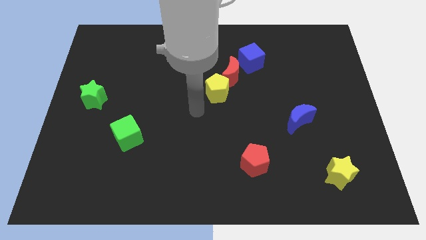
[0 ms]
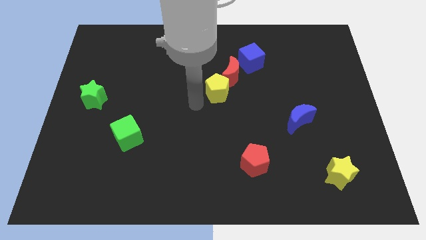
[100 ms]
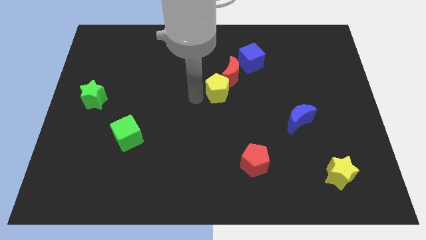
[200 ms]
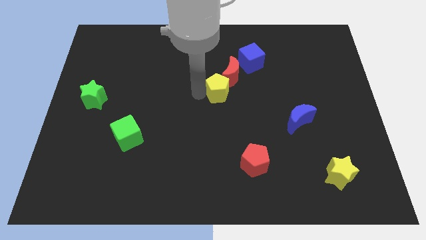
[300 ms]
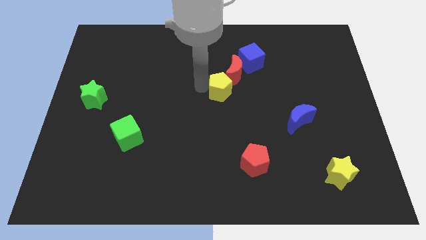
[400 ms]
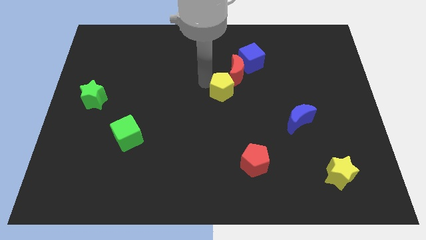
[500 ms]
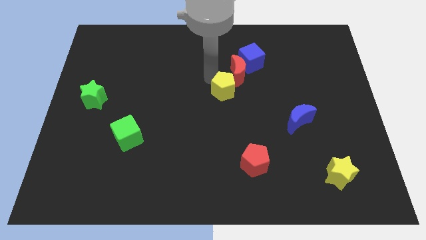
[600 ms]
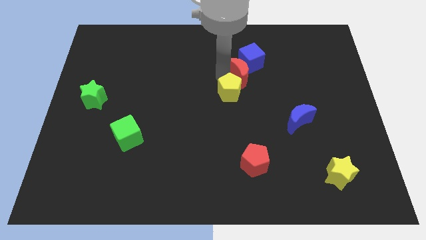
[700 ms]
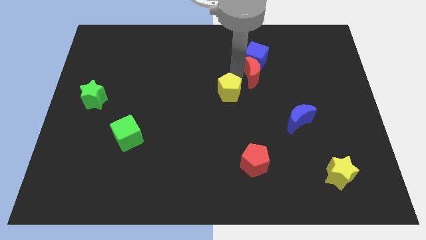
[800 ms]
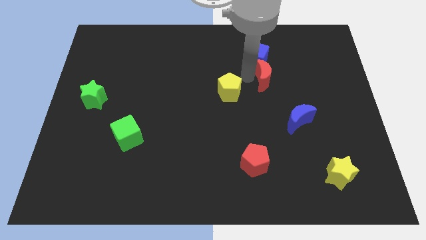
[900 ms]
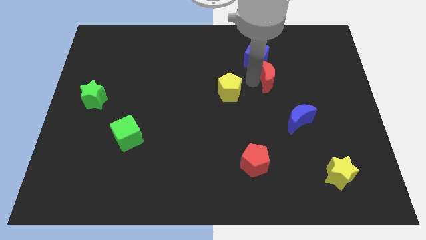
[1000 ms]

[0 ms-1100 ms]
separate the yellow pentagon from the red moon

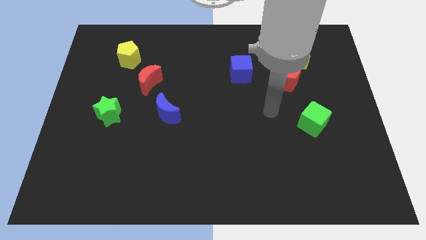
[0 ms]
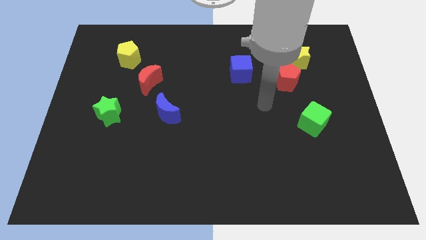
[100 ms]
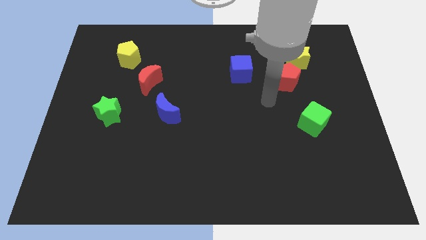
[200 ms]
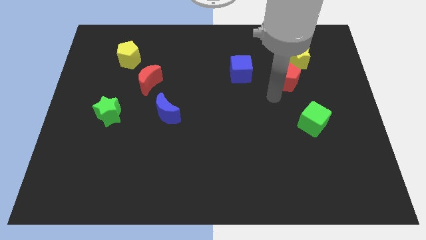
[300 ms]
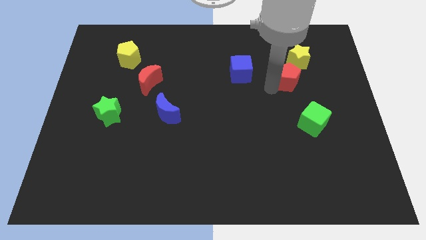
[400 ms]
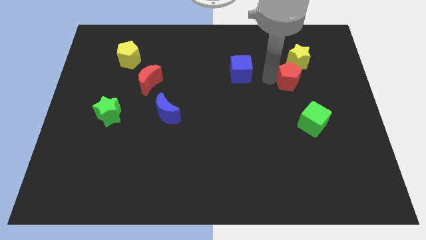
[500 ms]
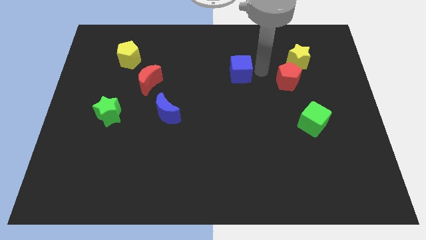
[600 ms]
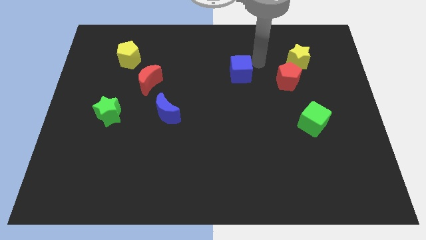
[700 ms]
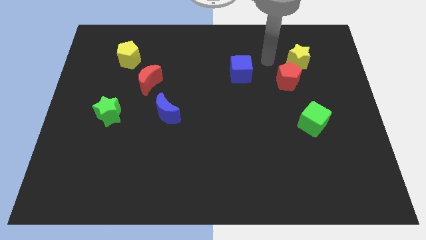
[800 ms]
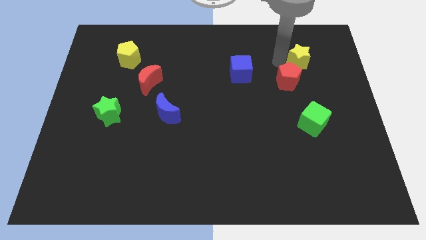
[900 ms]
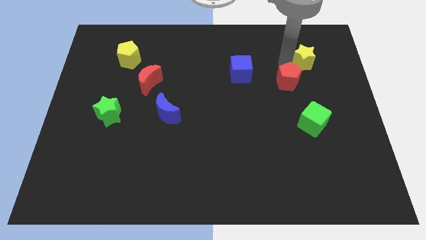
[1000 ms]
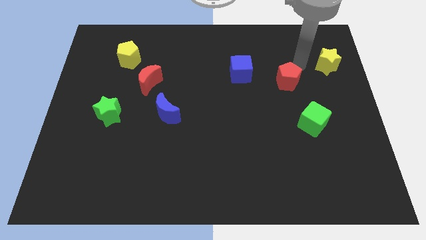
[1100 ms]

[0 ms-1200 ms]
move the red pentagon away from the yellow star

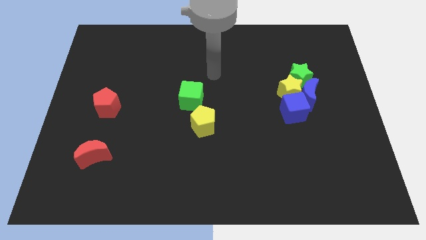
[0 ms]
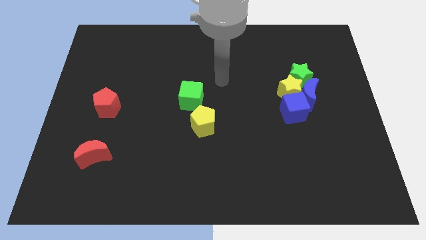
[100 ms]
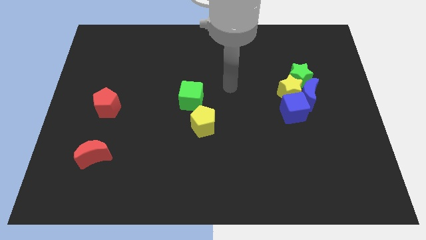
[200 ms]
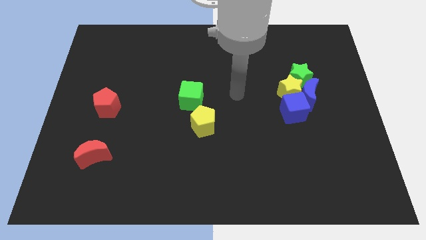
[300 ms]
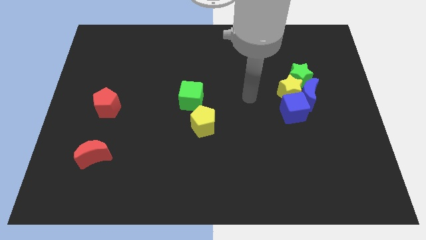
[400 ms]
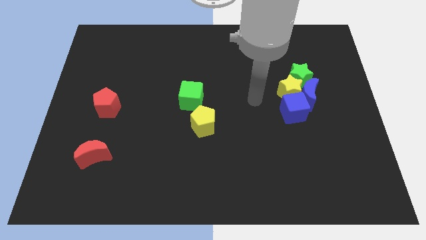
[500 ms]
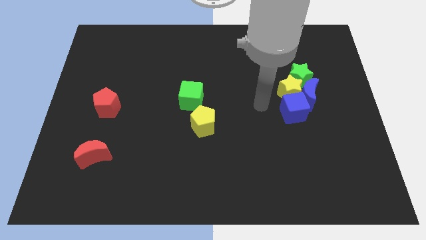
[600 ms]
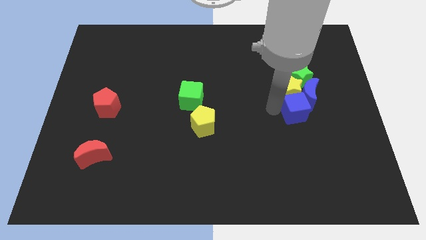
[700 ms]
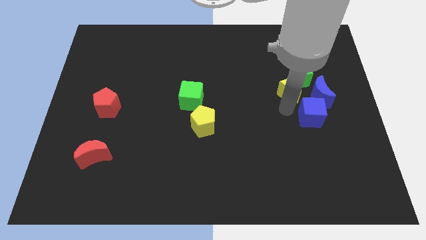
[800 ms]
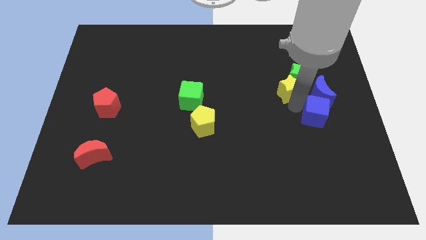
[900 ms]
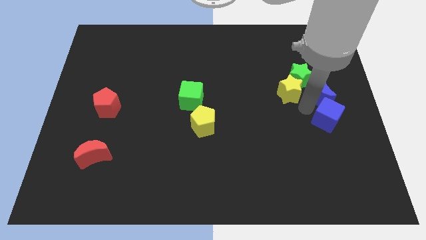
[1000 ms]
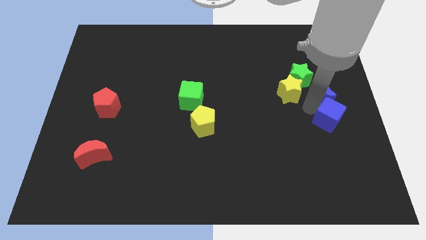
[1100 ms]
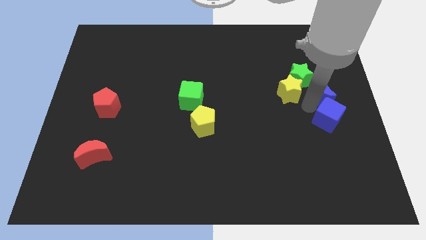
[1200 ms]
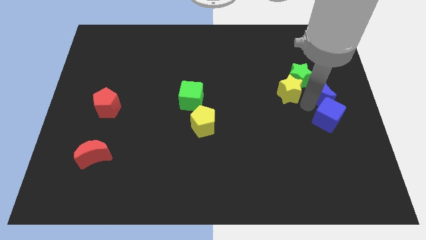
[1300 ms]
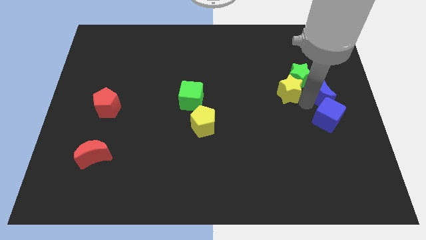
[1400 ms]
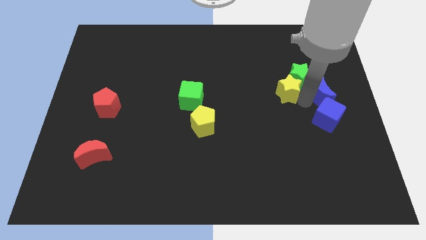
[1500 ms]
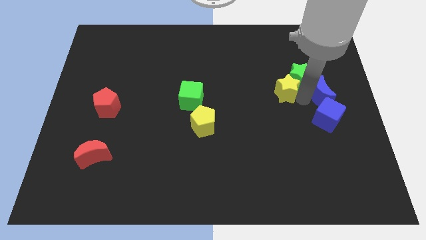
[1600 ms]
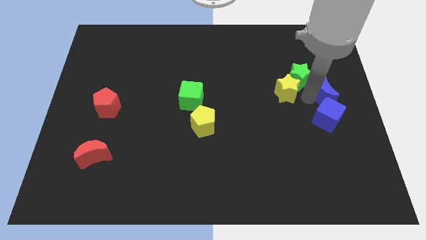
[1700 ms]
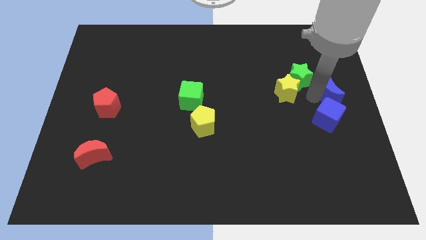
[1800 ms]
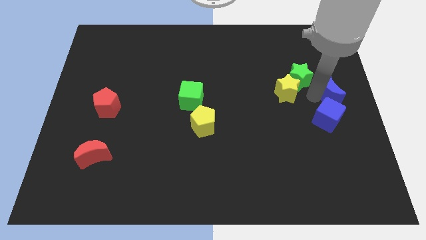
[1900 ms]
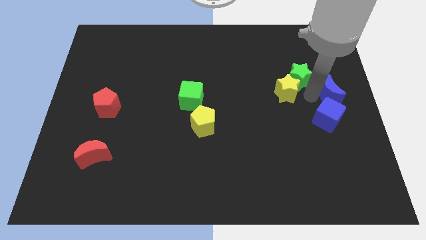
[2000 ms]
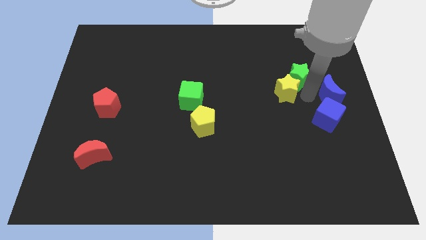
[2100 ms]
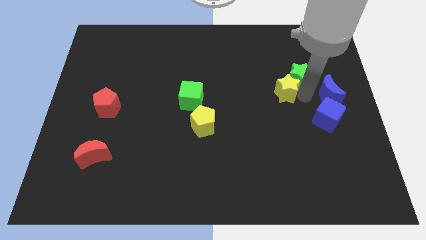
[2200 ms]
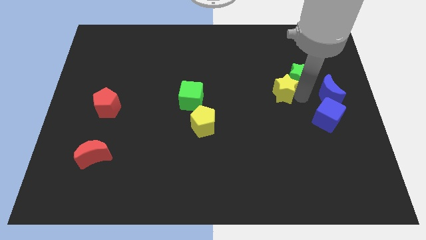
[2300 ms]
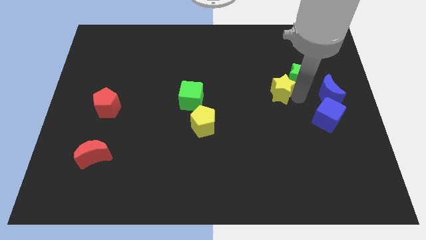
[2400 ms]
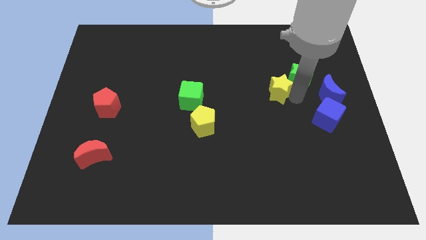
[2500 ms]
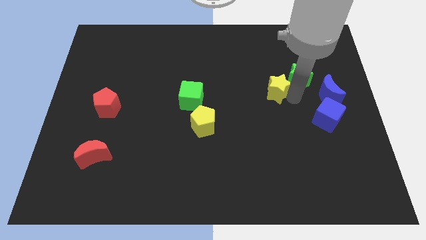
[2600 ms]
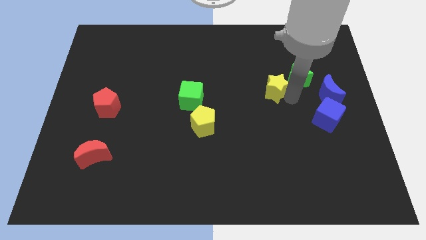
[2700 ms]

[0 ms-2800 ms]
move the yellow star away from the blue moon, green star, and blue cube

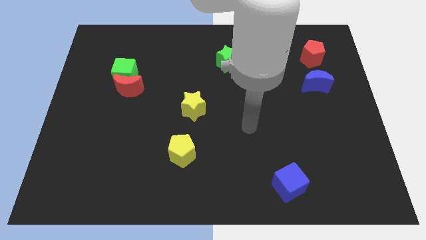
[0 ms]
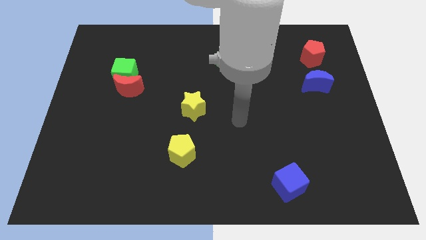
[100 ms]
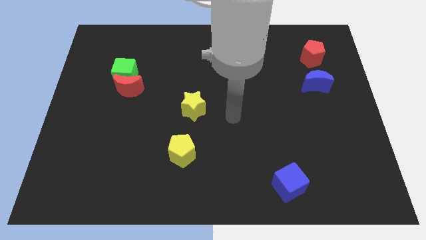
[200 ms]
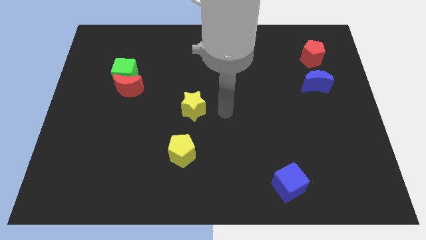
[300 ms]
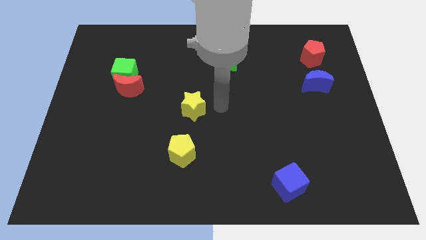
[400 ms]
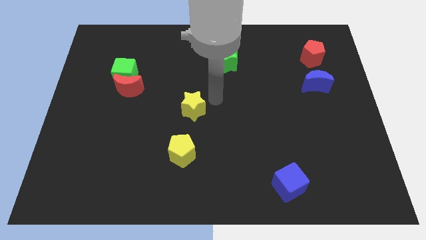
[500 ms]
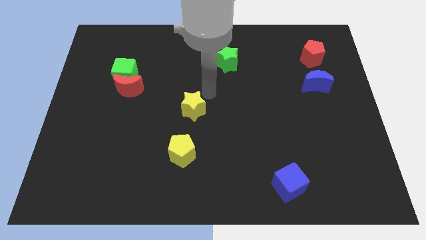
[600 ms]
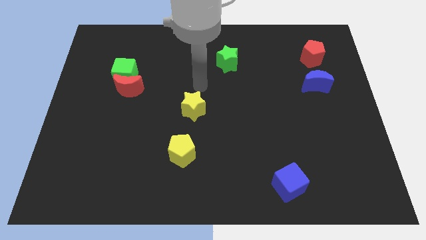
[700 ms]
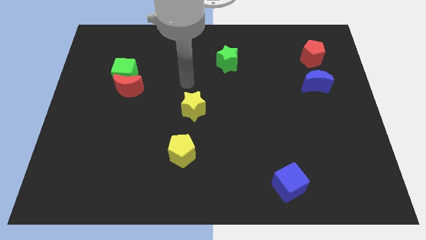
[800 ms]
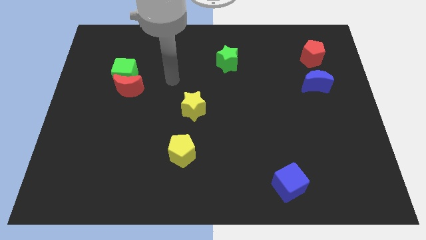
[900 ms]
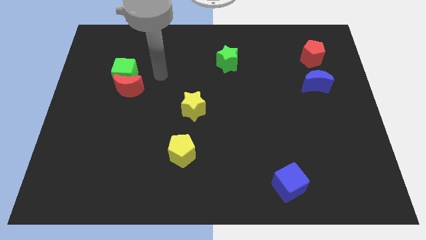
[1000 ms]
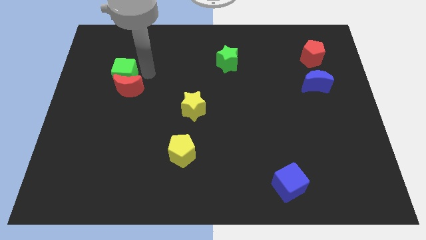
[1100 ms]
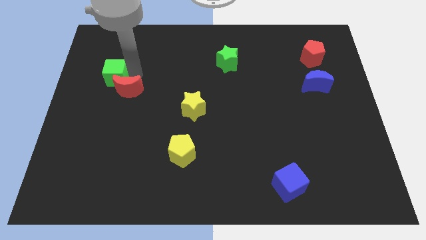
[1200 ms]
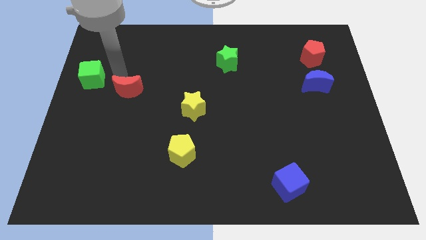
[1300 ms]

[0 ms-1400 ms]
pull the red moon apart from the green cube

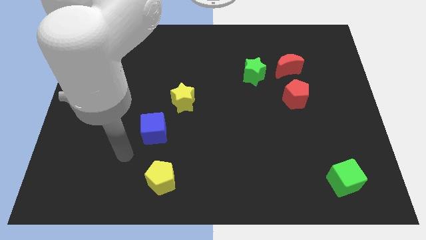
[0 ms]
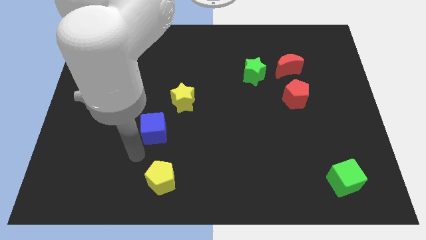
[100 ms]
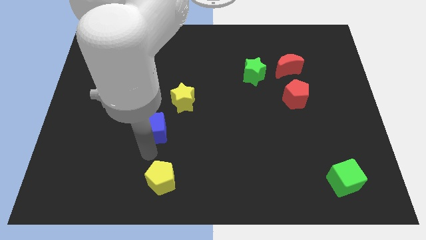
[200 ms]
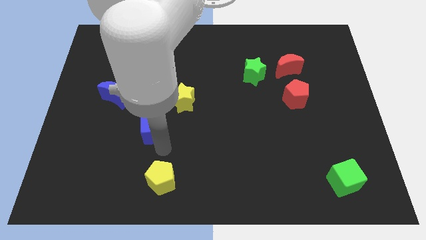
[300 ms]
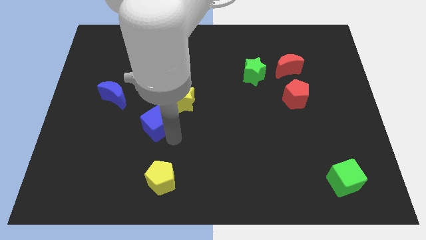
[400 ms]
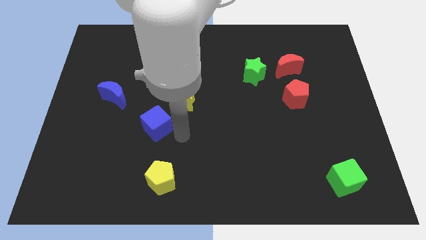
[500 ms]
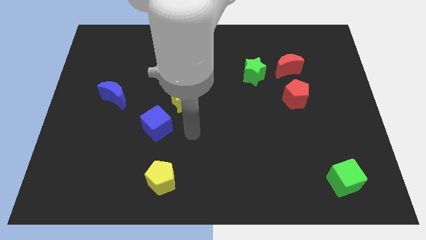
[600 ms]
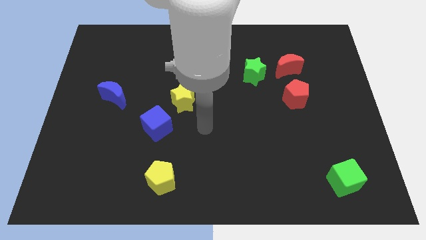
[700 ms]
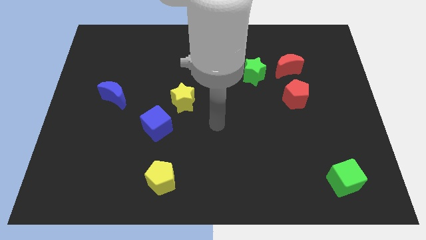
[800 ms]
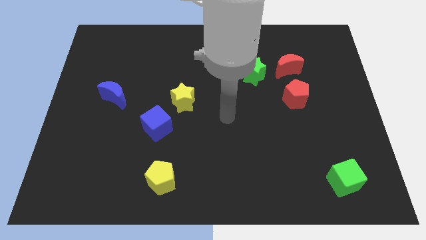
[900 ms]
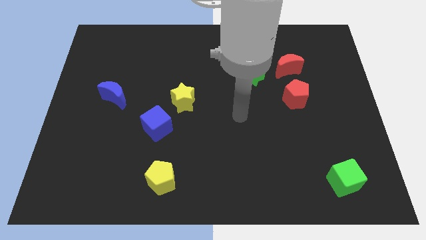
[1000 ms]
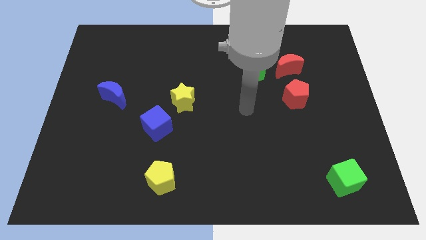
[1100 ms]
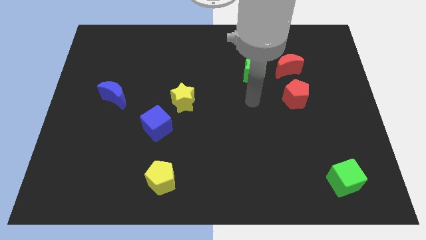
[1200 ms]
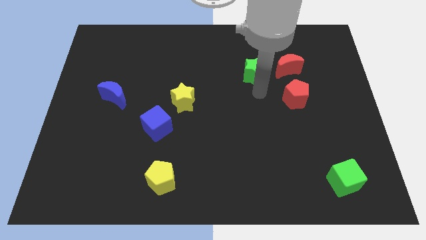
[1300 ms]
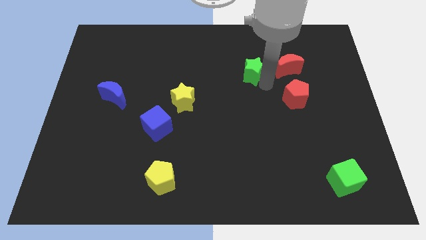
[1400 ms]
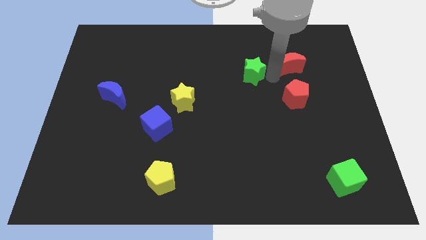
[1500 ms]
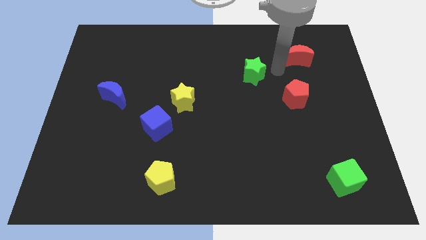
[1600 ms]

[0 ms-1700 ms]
separate the green star from the red moon

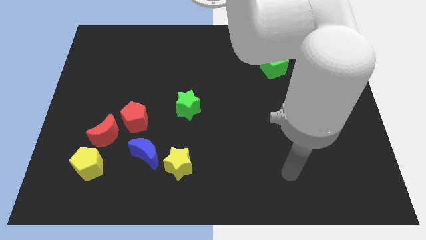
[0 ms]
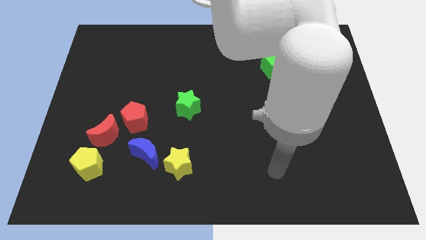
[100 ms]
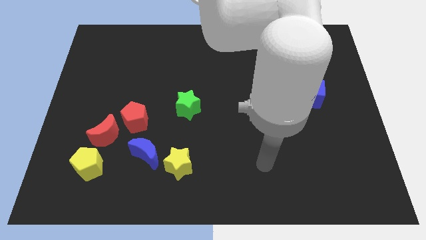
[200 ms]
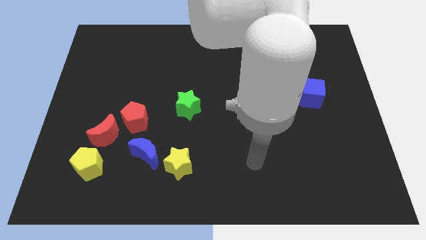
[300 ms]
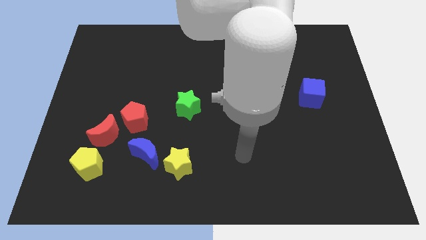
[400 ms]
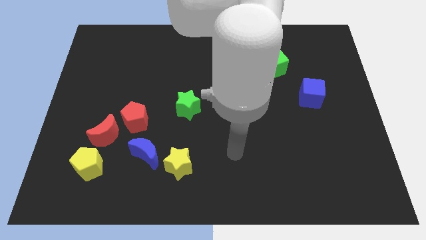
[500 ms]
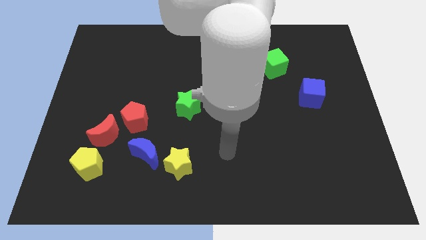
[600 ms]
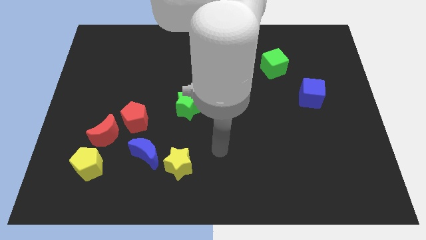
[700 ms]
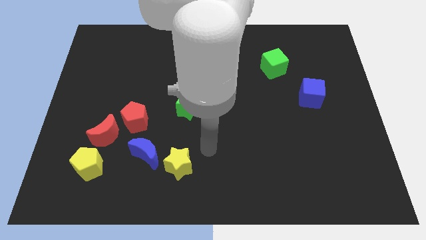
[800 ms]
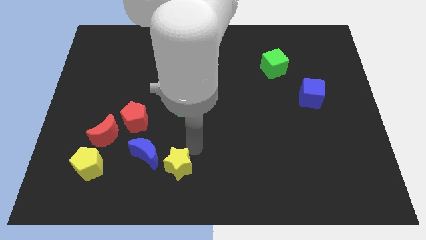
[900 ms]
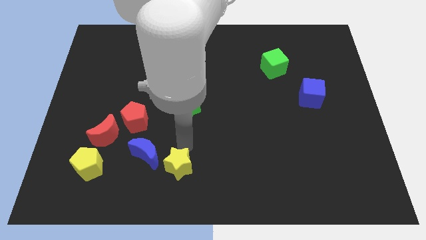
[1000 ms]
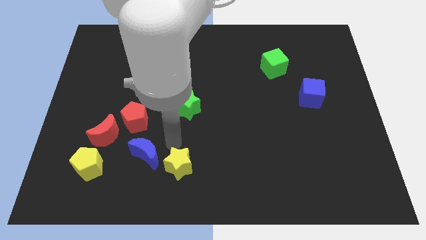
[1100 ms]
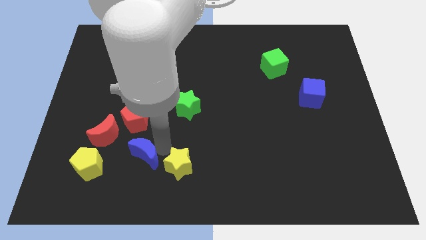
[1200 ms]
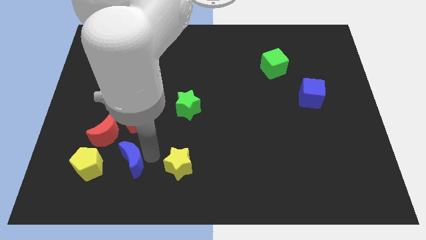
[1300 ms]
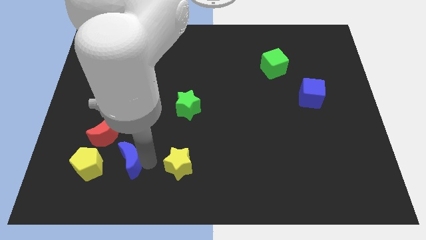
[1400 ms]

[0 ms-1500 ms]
move the yellow star away from the blue moon
